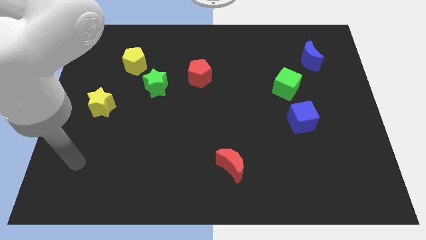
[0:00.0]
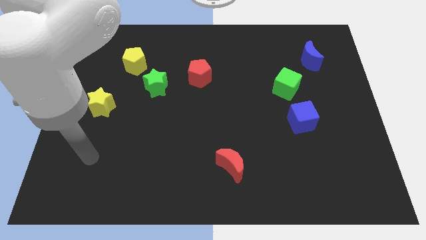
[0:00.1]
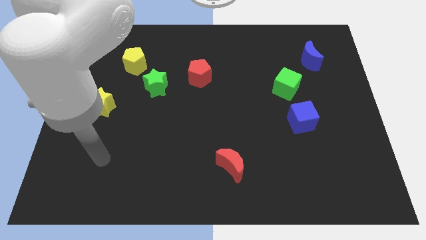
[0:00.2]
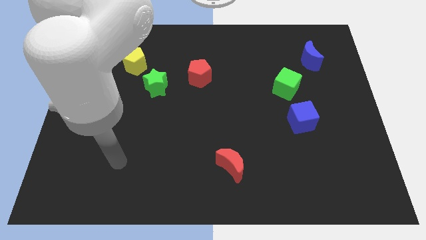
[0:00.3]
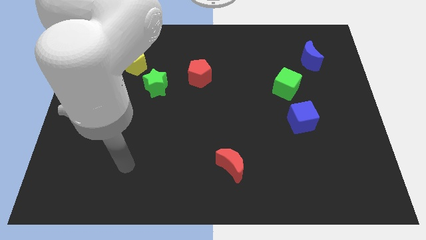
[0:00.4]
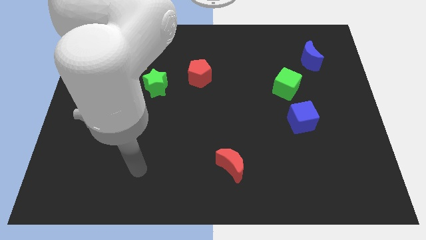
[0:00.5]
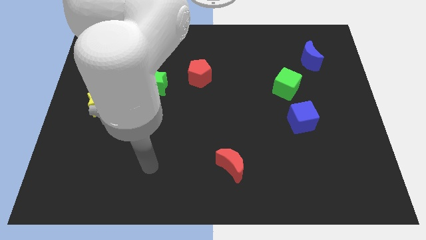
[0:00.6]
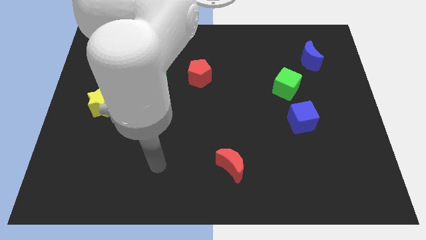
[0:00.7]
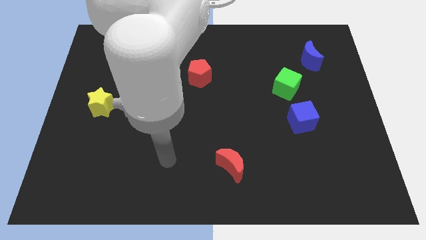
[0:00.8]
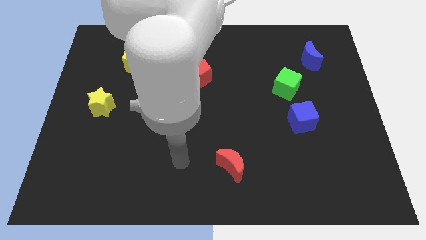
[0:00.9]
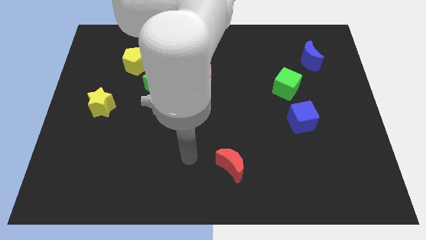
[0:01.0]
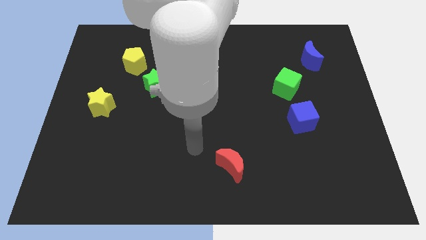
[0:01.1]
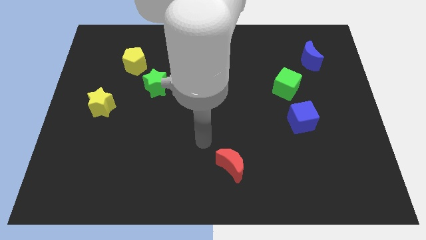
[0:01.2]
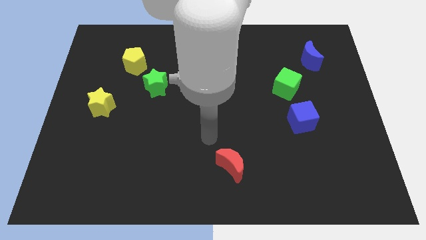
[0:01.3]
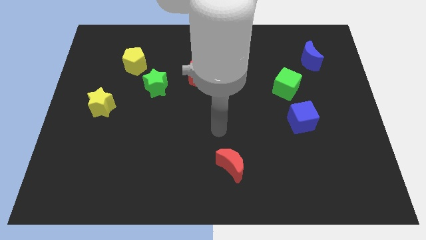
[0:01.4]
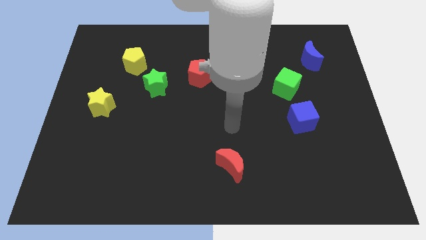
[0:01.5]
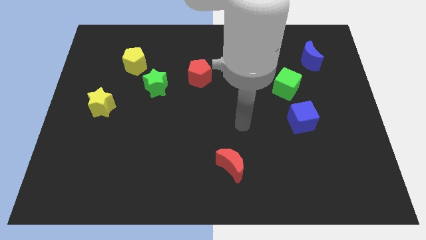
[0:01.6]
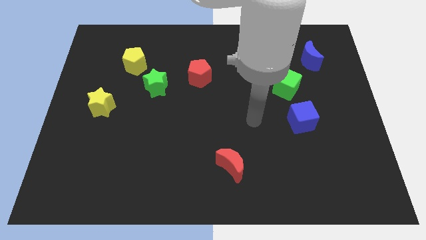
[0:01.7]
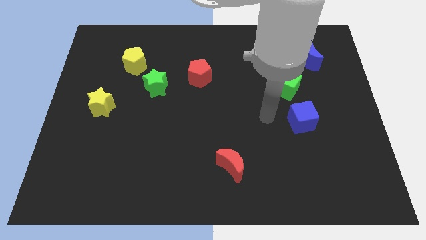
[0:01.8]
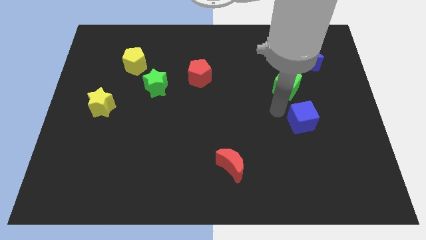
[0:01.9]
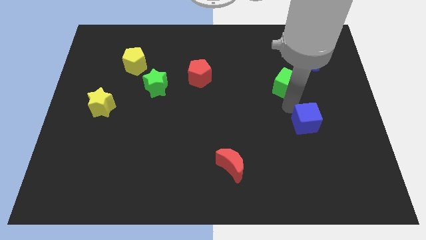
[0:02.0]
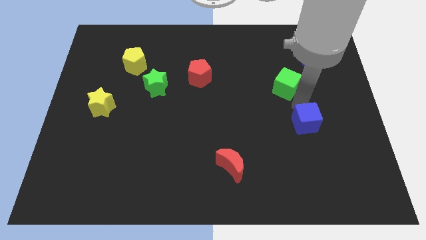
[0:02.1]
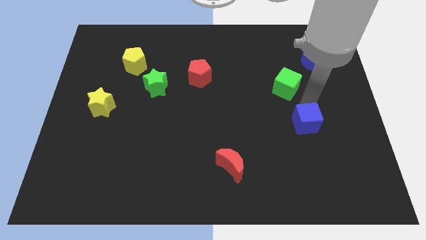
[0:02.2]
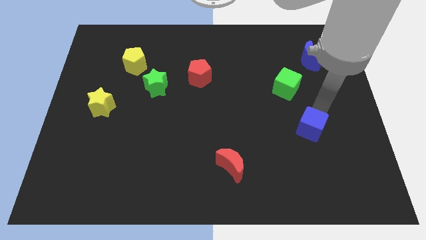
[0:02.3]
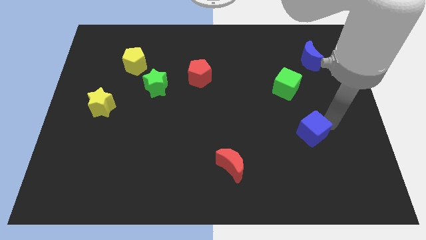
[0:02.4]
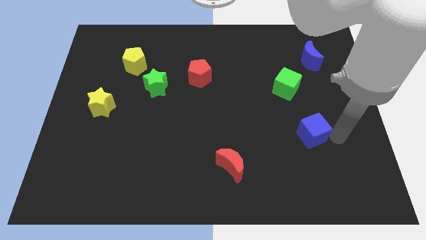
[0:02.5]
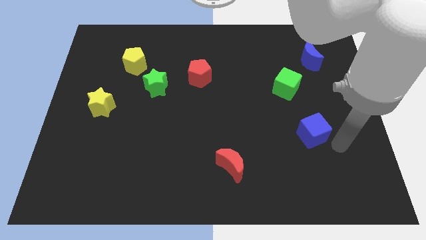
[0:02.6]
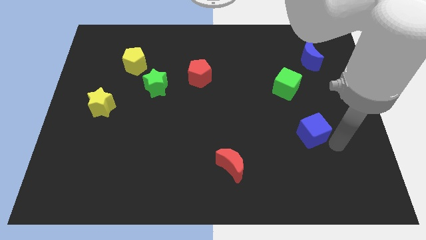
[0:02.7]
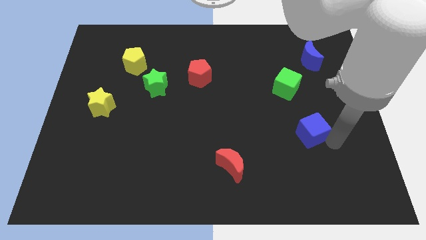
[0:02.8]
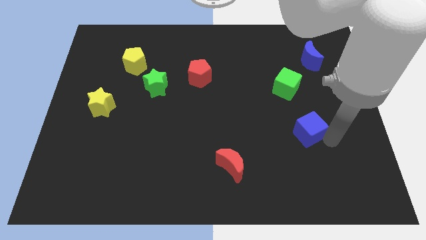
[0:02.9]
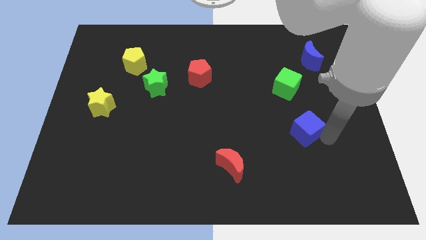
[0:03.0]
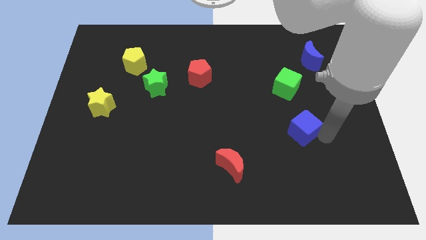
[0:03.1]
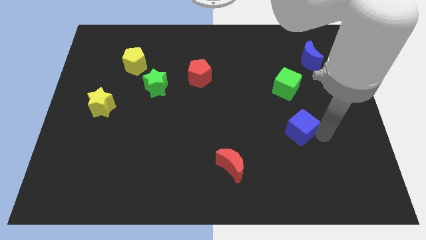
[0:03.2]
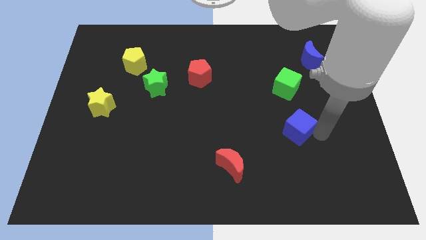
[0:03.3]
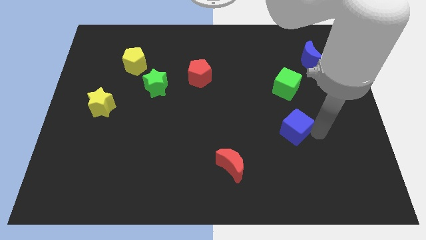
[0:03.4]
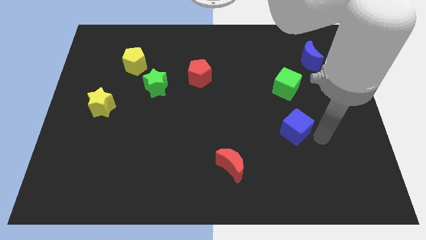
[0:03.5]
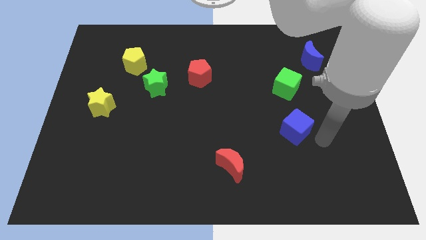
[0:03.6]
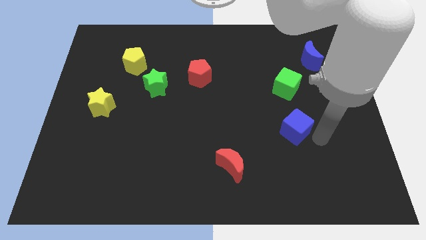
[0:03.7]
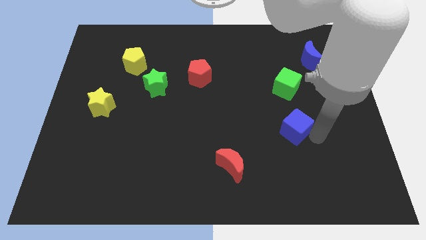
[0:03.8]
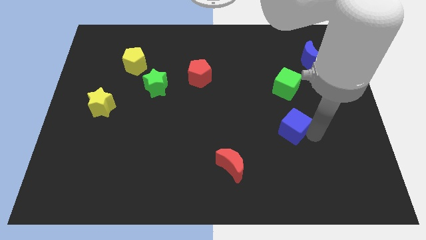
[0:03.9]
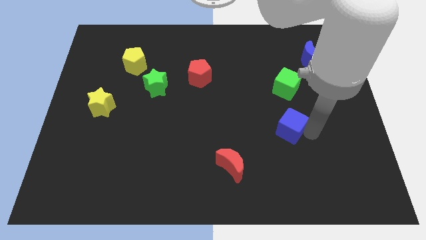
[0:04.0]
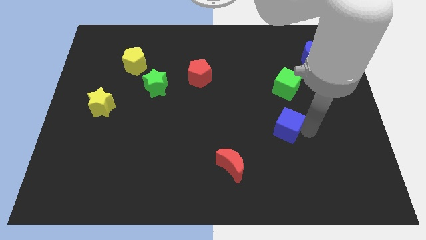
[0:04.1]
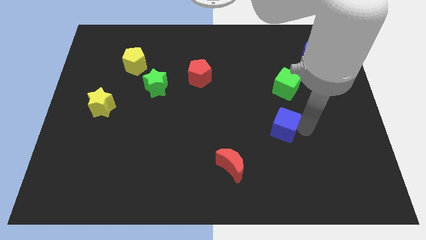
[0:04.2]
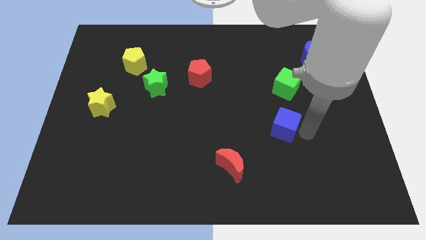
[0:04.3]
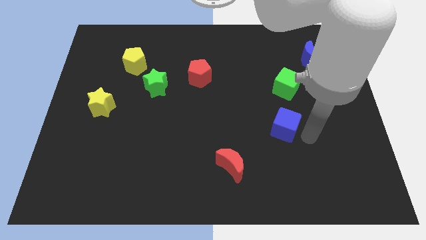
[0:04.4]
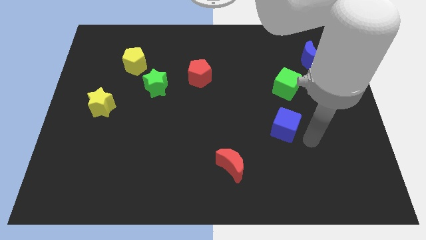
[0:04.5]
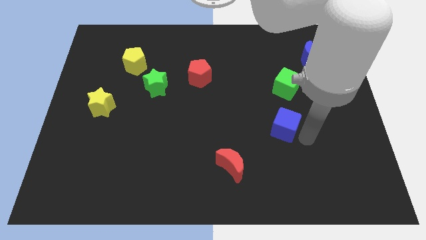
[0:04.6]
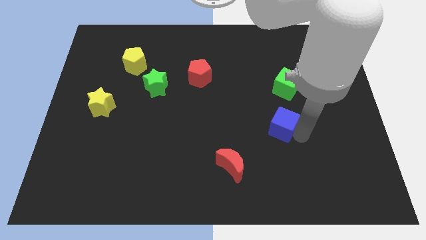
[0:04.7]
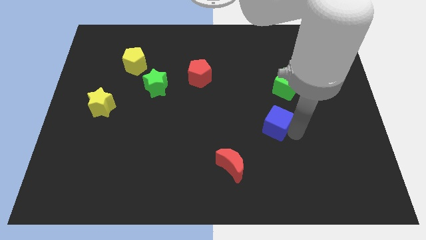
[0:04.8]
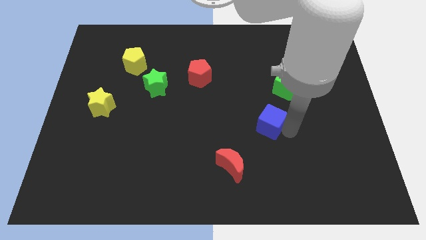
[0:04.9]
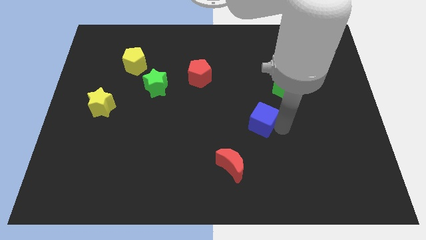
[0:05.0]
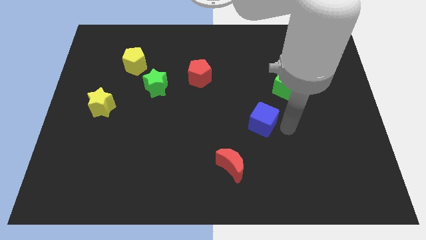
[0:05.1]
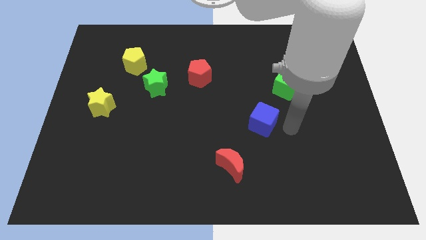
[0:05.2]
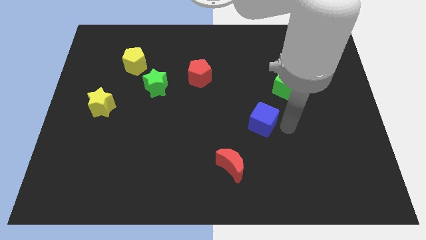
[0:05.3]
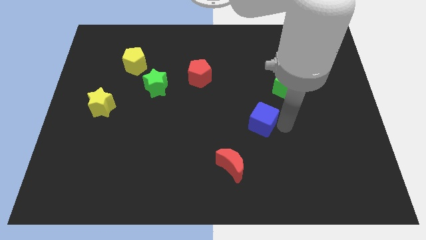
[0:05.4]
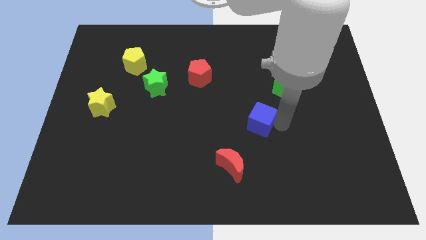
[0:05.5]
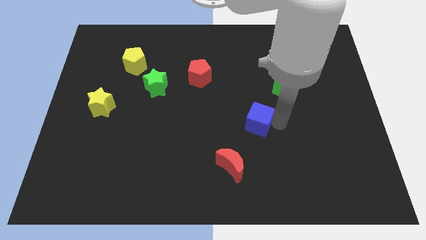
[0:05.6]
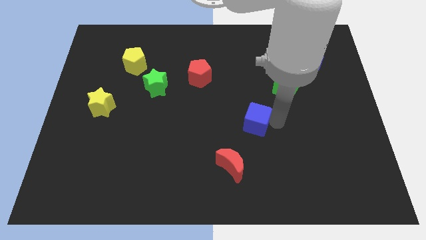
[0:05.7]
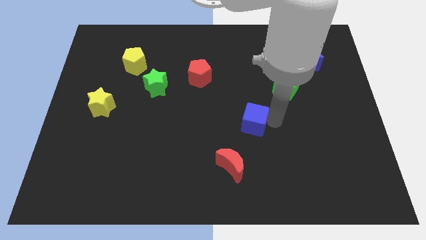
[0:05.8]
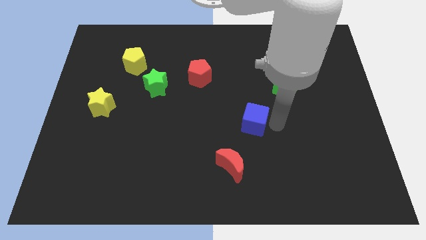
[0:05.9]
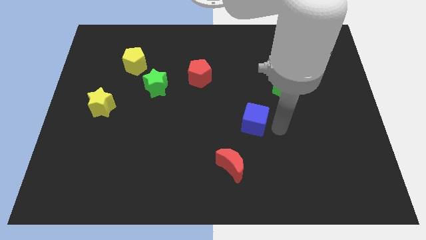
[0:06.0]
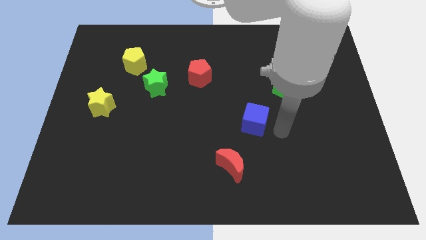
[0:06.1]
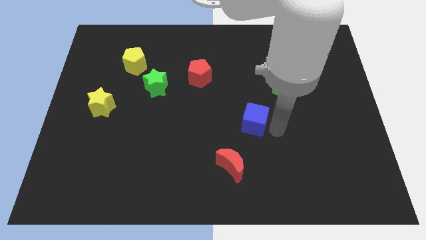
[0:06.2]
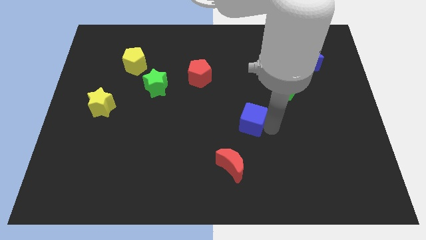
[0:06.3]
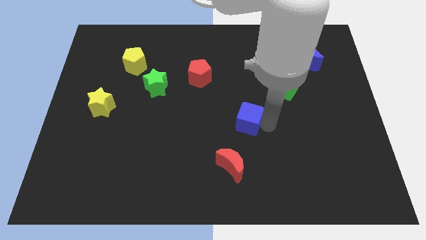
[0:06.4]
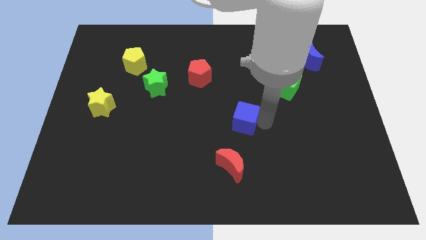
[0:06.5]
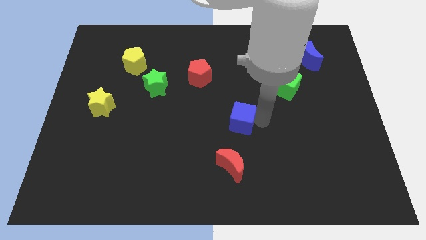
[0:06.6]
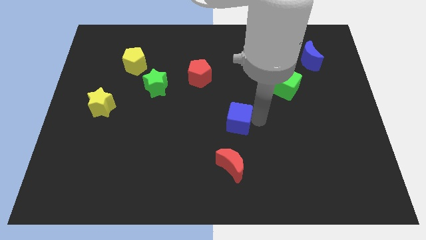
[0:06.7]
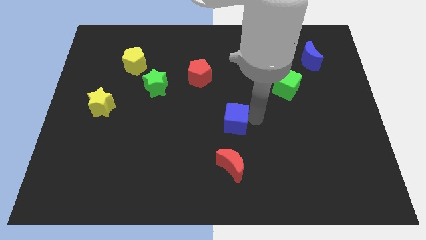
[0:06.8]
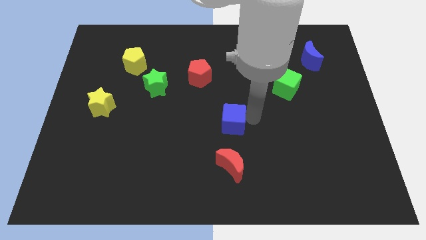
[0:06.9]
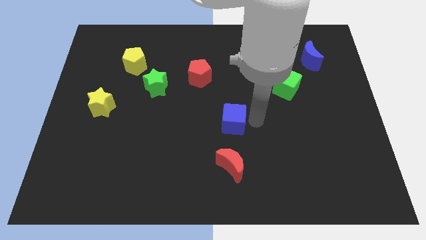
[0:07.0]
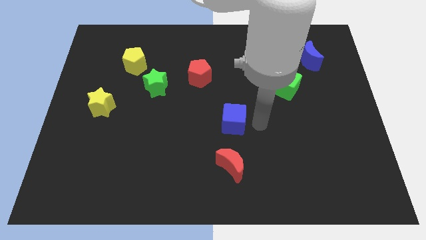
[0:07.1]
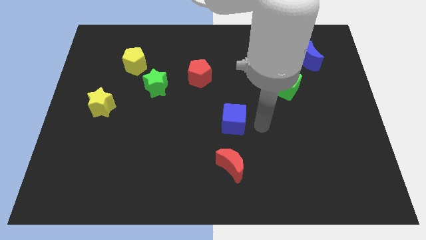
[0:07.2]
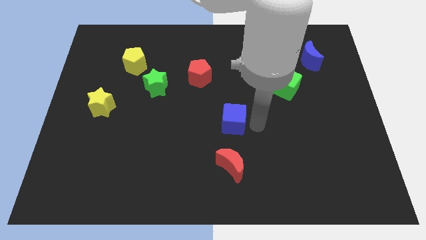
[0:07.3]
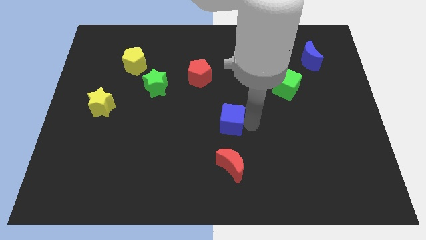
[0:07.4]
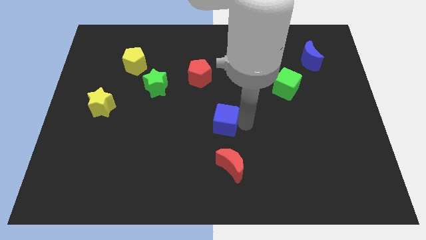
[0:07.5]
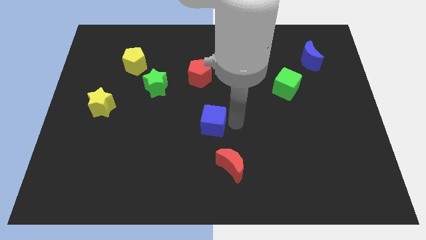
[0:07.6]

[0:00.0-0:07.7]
slide the blue cube to the left

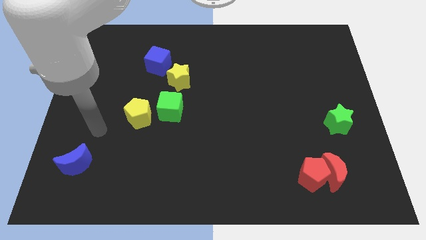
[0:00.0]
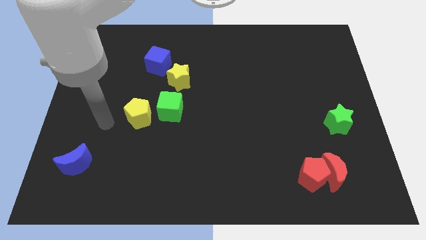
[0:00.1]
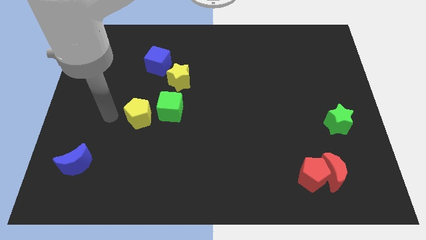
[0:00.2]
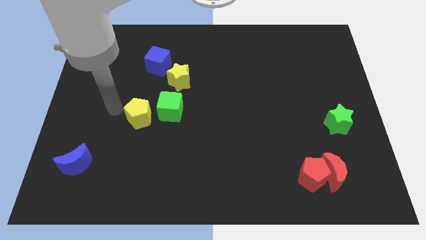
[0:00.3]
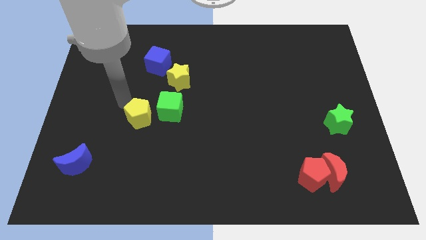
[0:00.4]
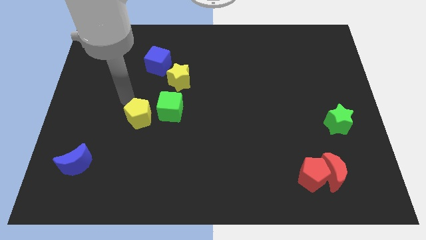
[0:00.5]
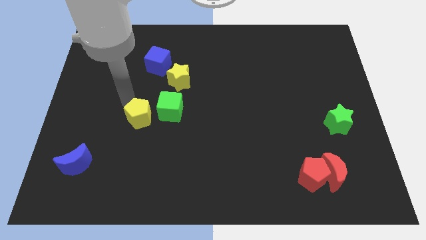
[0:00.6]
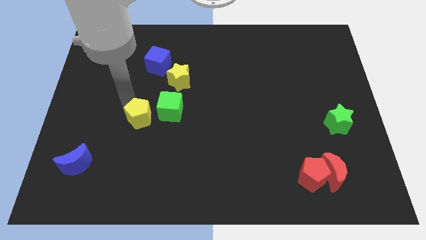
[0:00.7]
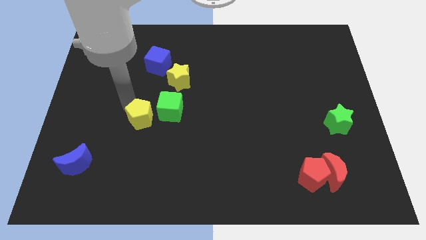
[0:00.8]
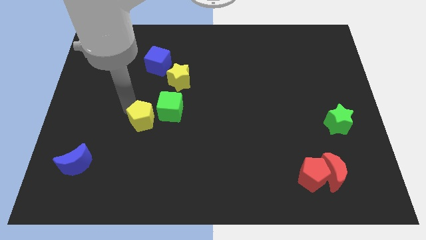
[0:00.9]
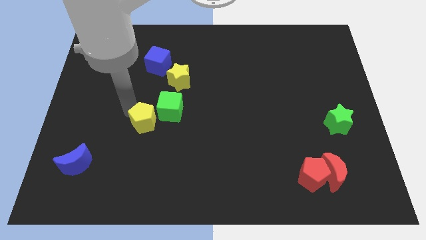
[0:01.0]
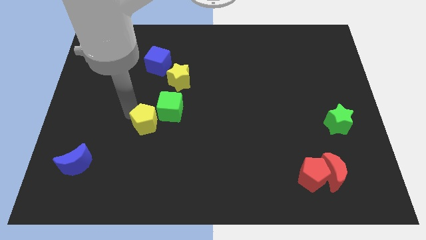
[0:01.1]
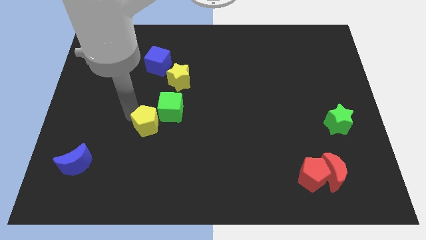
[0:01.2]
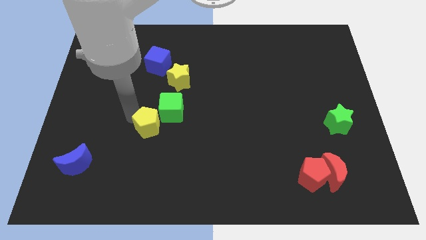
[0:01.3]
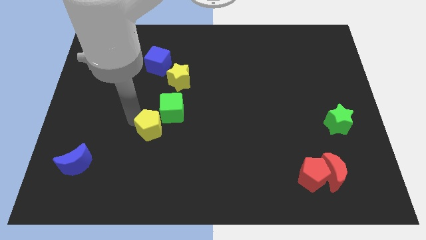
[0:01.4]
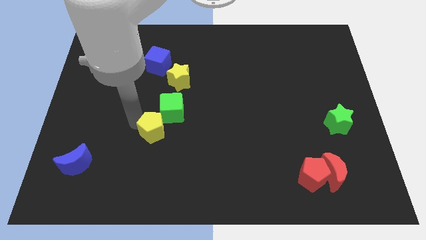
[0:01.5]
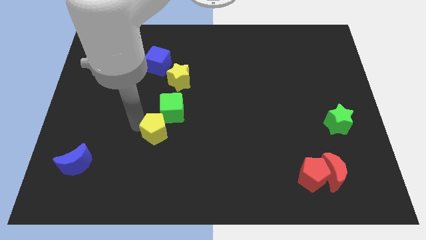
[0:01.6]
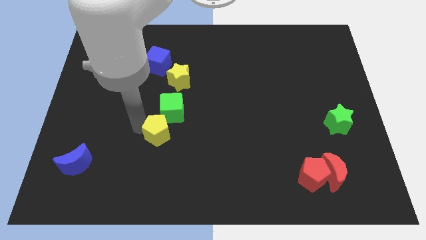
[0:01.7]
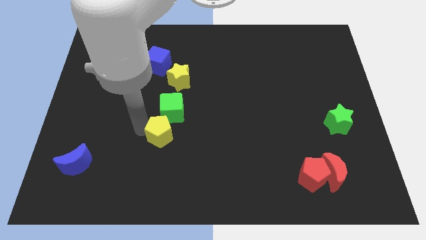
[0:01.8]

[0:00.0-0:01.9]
move the yellow pentagon down and then to the right a little bit
